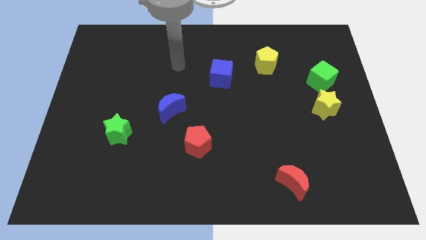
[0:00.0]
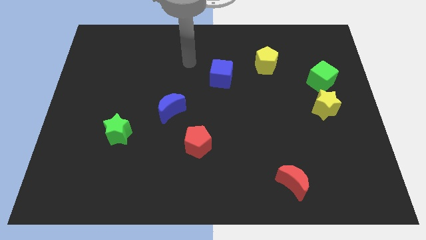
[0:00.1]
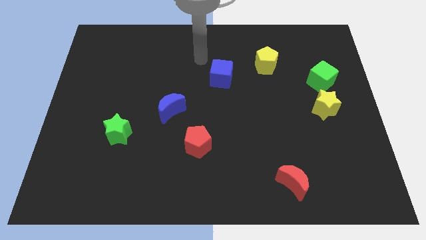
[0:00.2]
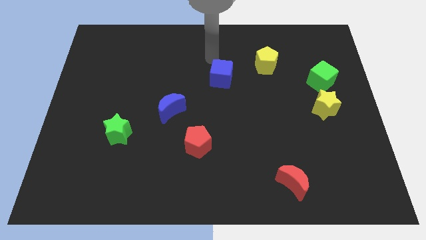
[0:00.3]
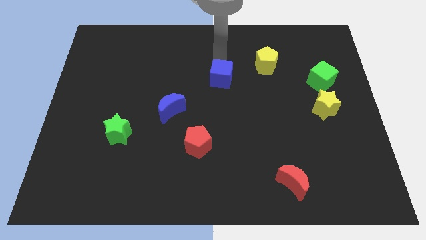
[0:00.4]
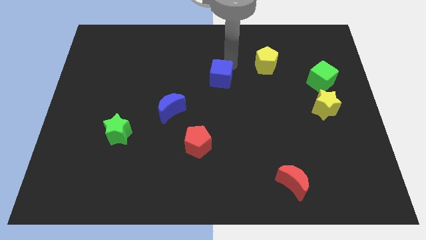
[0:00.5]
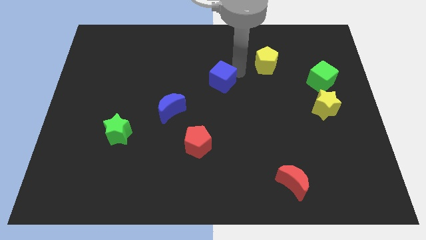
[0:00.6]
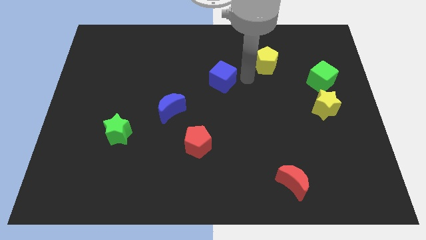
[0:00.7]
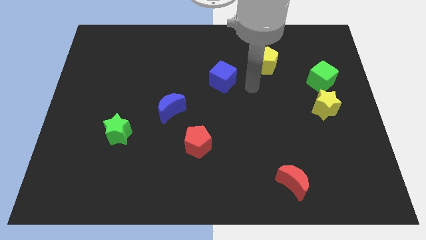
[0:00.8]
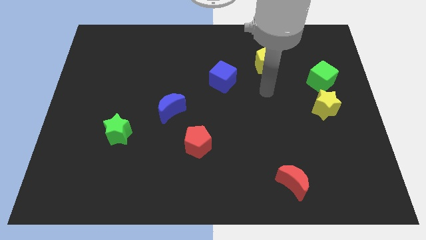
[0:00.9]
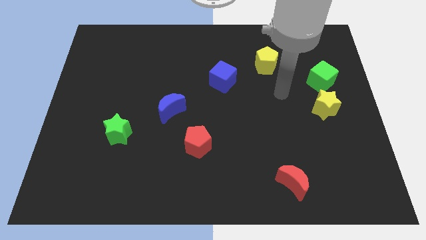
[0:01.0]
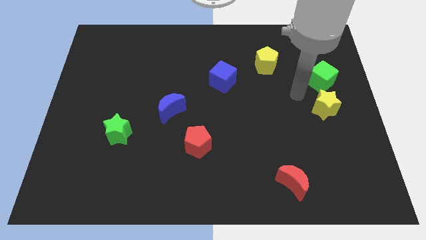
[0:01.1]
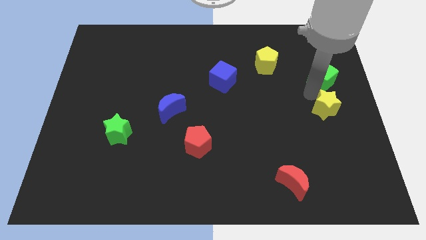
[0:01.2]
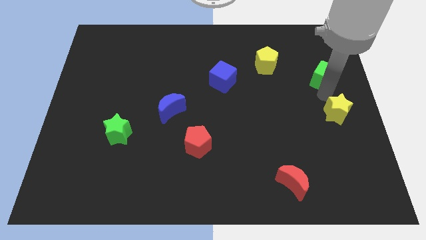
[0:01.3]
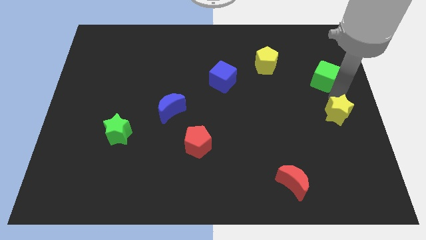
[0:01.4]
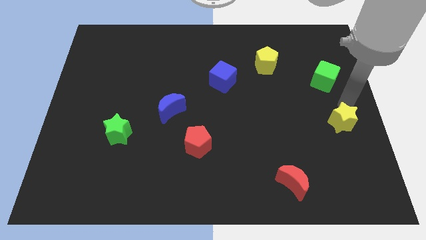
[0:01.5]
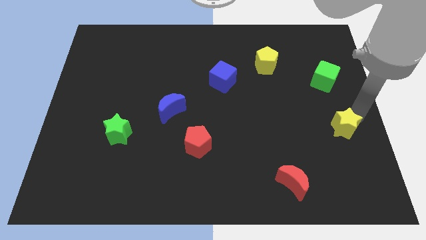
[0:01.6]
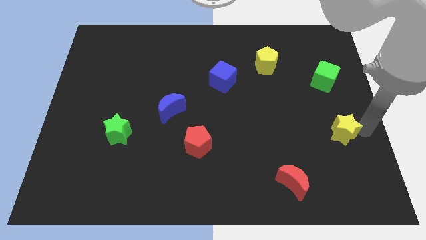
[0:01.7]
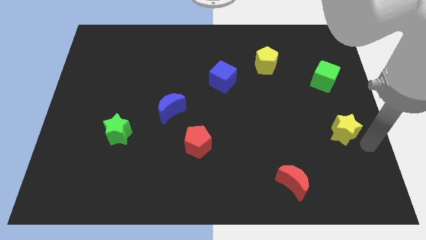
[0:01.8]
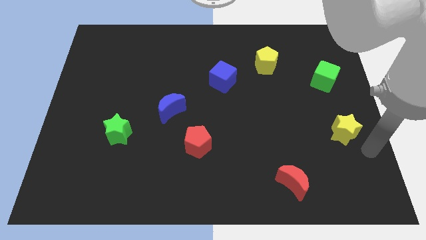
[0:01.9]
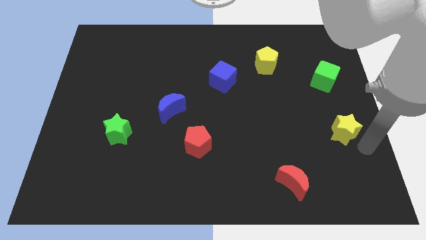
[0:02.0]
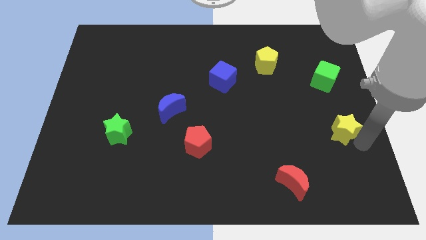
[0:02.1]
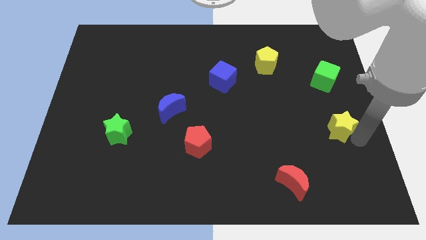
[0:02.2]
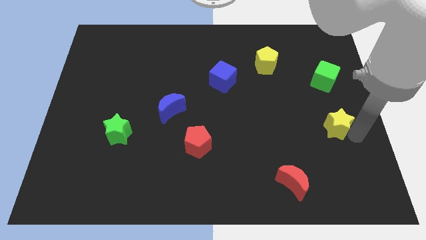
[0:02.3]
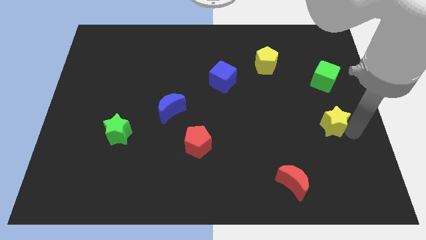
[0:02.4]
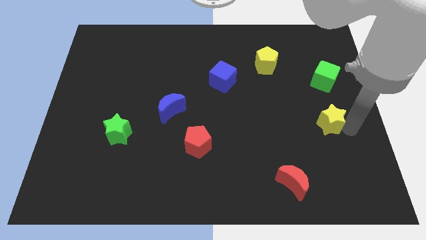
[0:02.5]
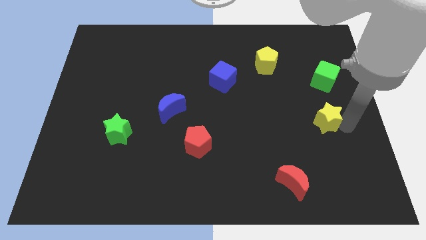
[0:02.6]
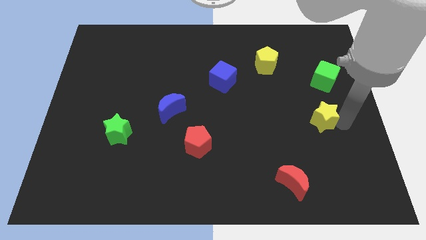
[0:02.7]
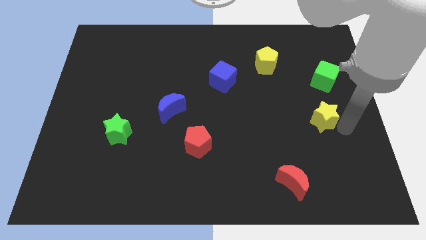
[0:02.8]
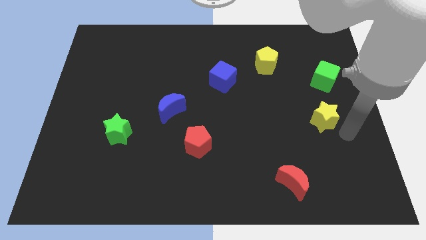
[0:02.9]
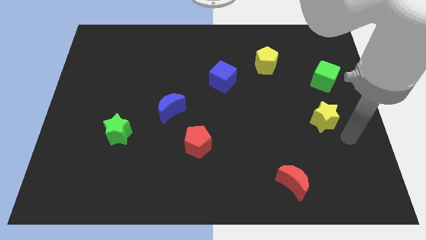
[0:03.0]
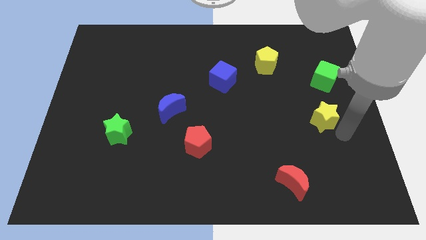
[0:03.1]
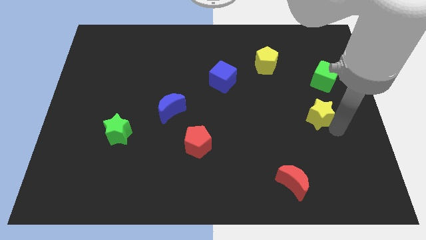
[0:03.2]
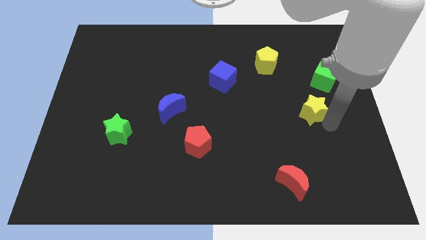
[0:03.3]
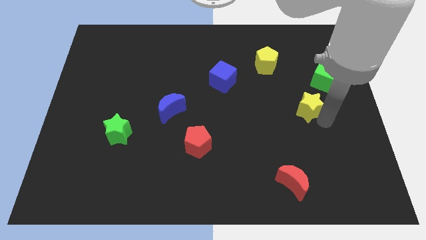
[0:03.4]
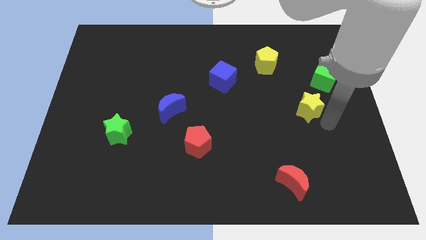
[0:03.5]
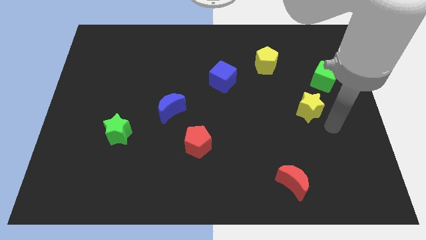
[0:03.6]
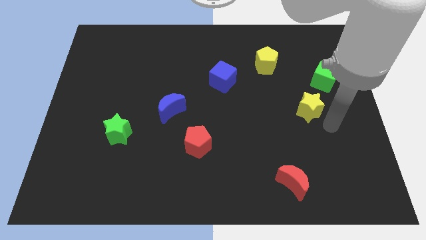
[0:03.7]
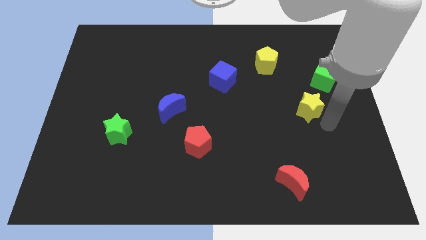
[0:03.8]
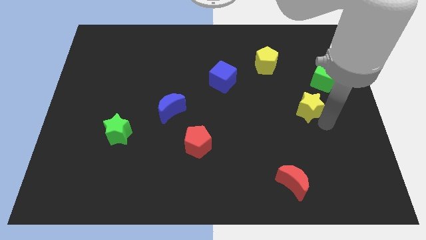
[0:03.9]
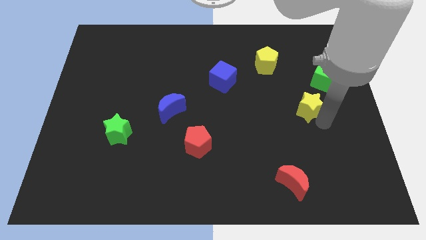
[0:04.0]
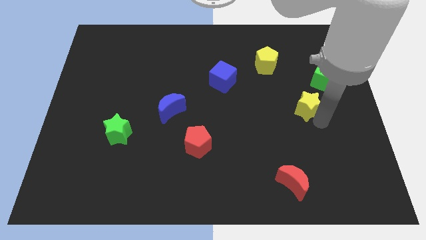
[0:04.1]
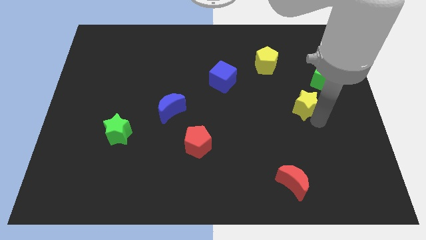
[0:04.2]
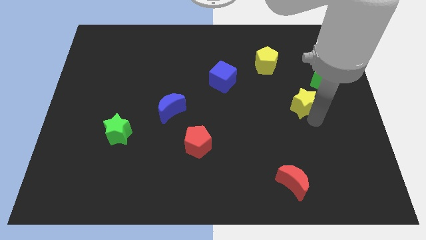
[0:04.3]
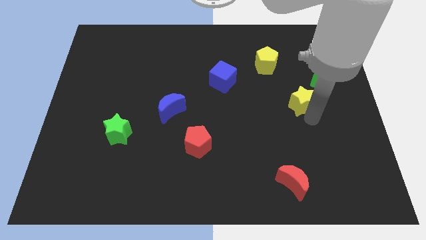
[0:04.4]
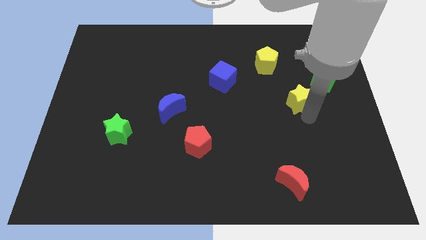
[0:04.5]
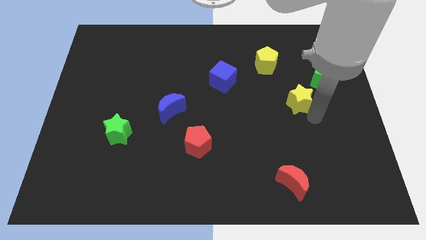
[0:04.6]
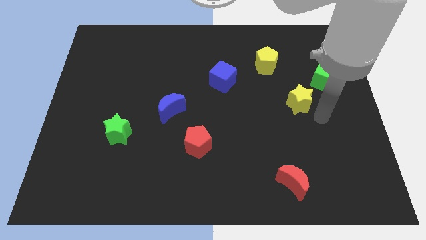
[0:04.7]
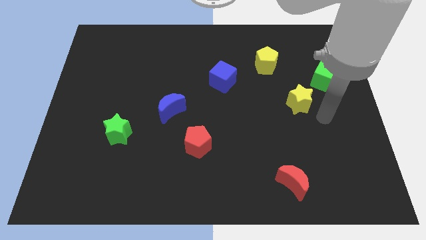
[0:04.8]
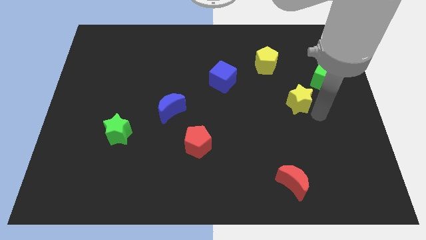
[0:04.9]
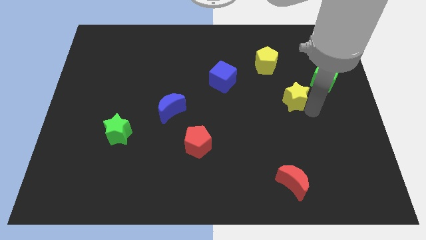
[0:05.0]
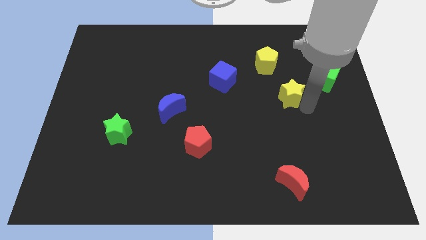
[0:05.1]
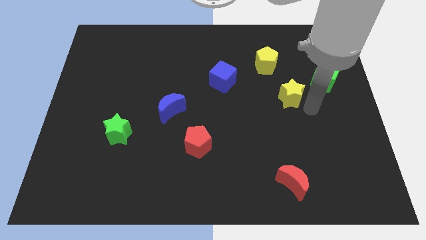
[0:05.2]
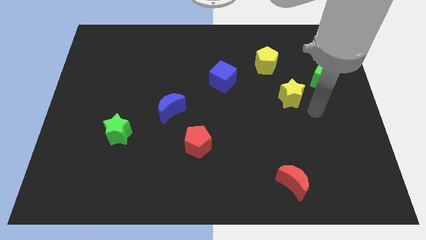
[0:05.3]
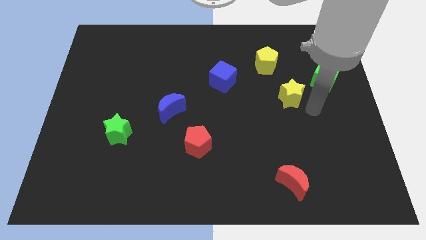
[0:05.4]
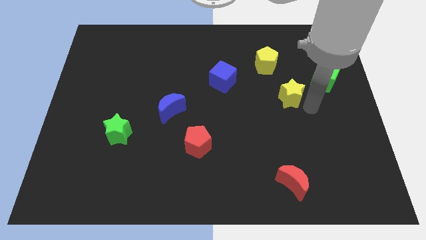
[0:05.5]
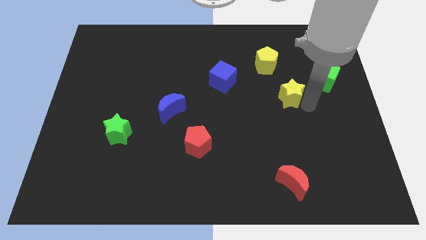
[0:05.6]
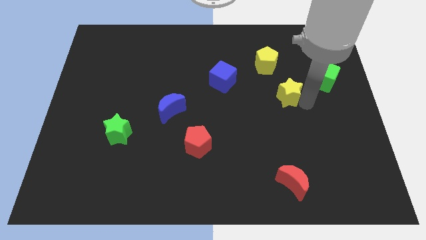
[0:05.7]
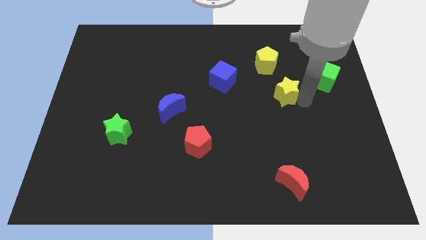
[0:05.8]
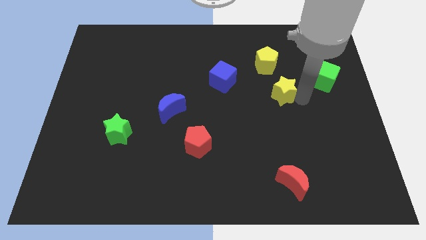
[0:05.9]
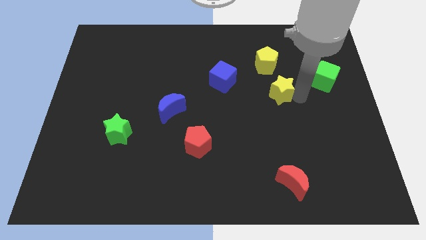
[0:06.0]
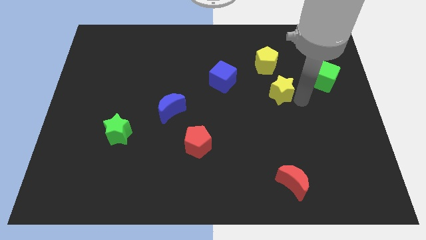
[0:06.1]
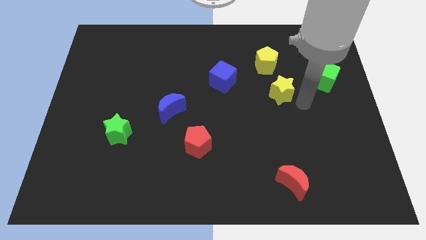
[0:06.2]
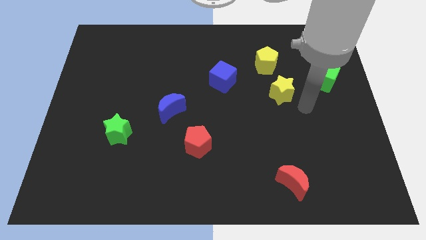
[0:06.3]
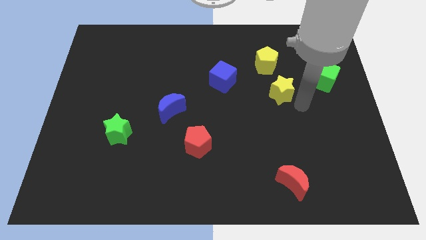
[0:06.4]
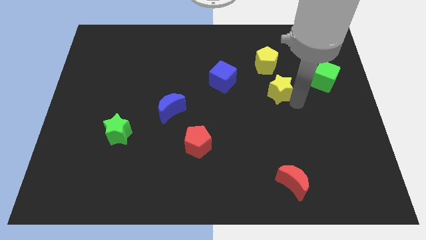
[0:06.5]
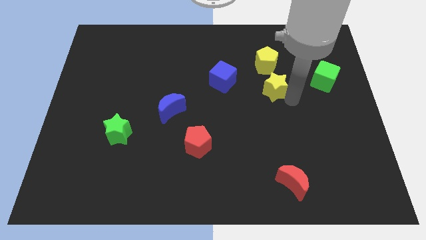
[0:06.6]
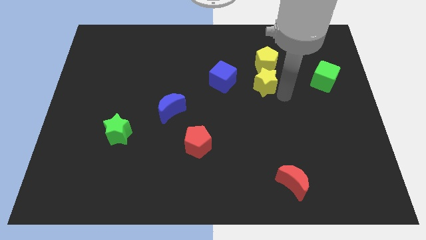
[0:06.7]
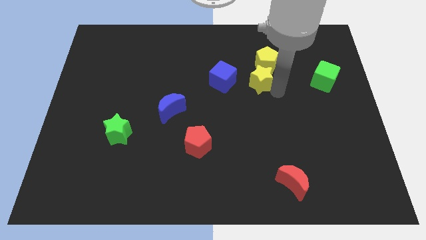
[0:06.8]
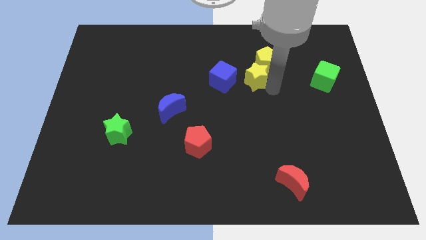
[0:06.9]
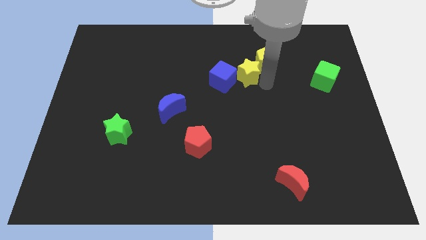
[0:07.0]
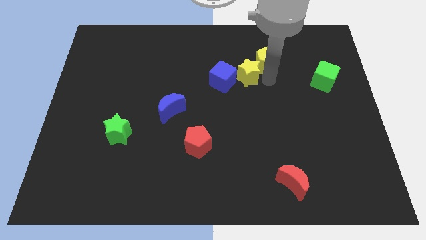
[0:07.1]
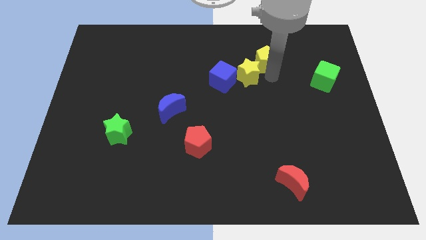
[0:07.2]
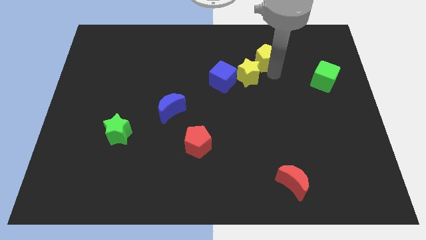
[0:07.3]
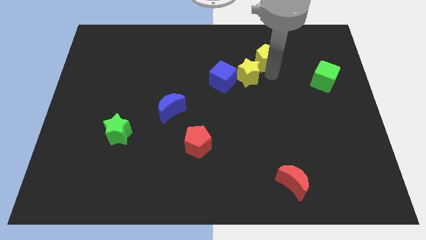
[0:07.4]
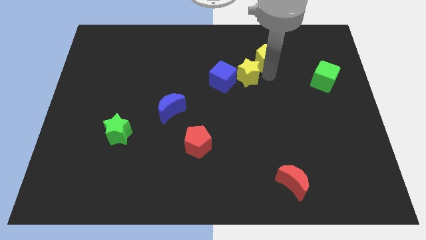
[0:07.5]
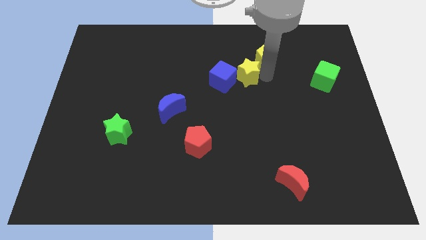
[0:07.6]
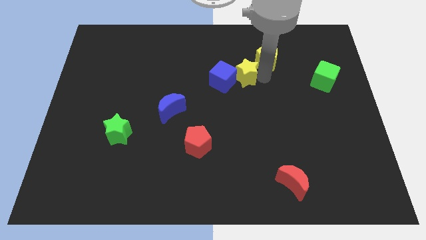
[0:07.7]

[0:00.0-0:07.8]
slide the yellow star close to the blue cube
